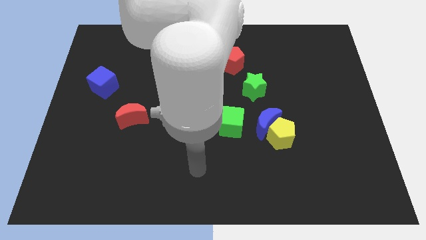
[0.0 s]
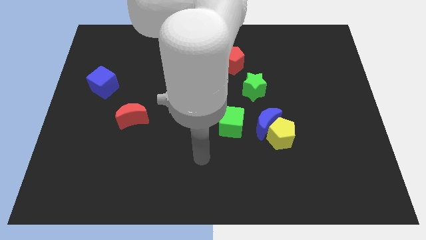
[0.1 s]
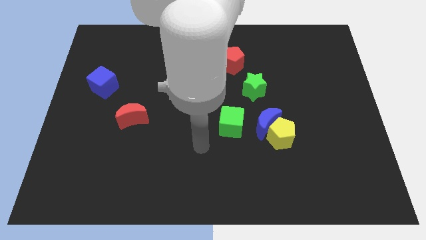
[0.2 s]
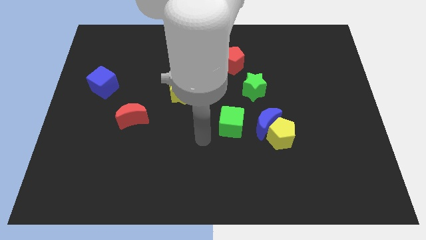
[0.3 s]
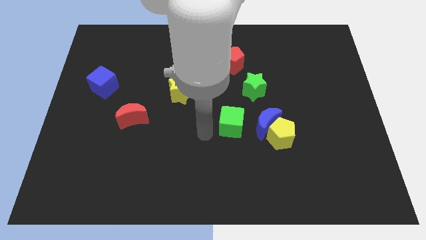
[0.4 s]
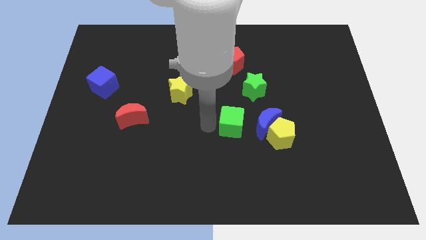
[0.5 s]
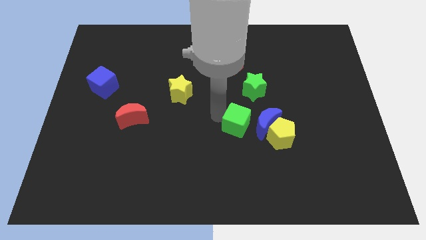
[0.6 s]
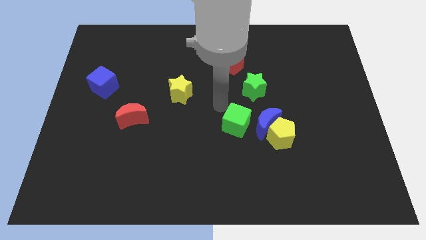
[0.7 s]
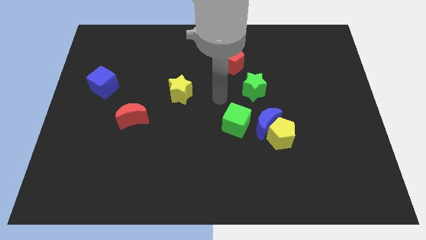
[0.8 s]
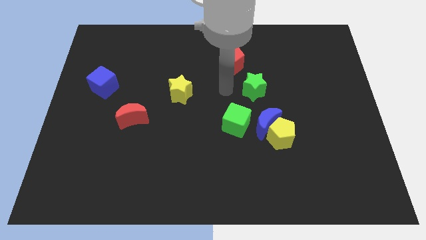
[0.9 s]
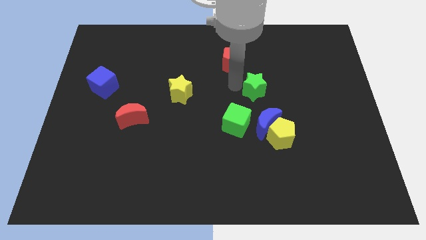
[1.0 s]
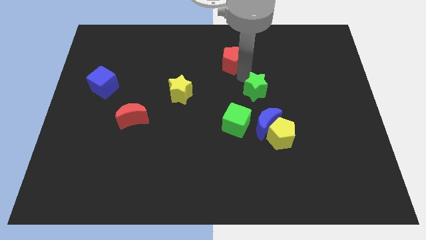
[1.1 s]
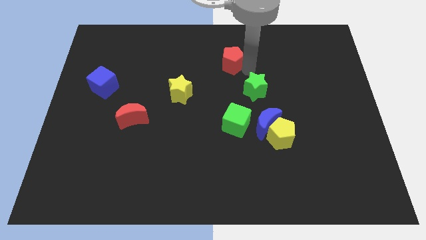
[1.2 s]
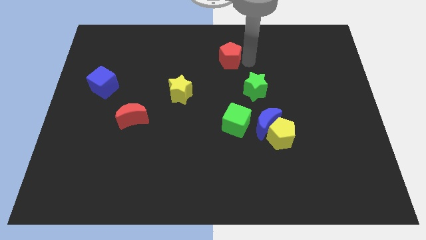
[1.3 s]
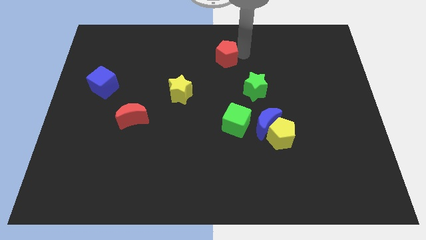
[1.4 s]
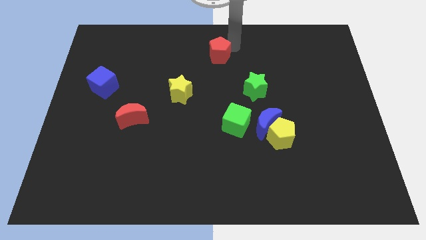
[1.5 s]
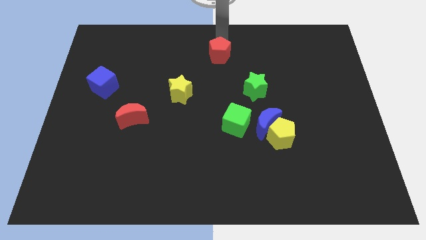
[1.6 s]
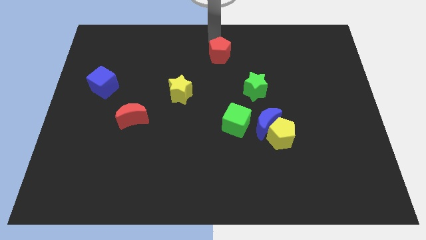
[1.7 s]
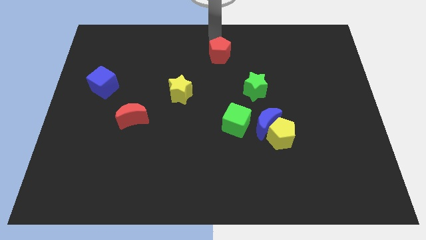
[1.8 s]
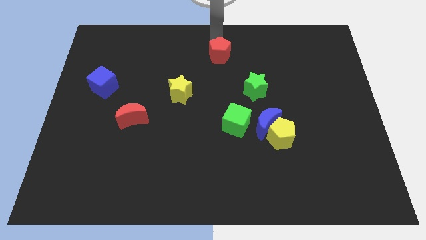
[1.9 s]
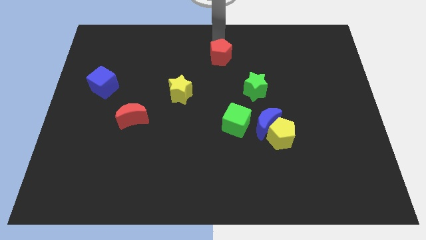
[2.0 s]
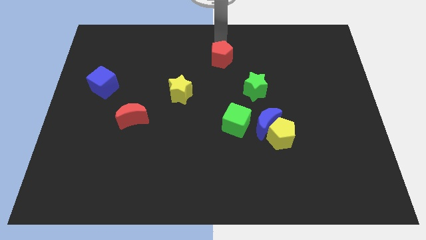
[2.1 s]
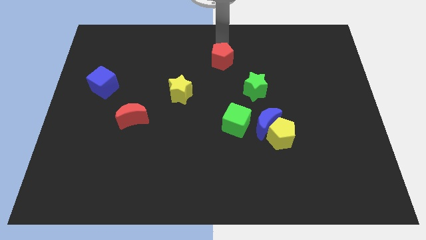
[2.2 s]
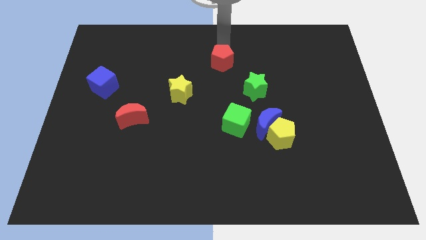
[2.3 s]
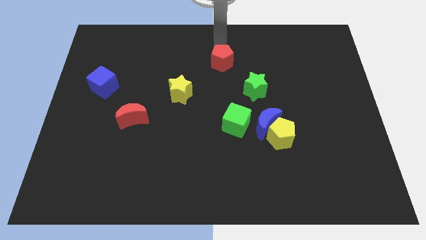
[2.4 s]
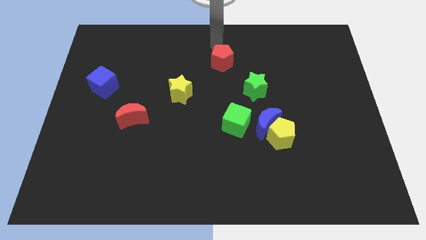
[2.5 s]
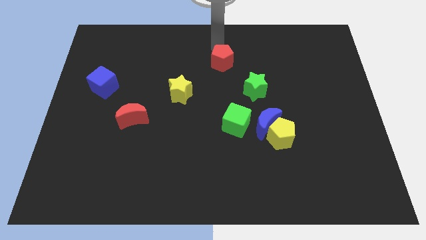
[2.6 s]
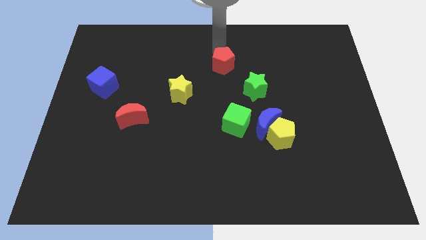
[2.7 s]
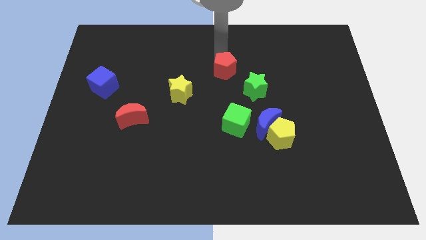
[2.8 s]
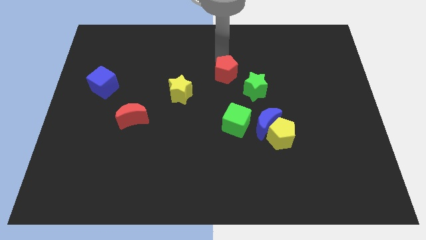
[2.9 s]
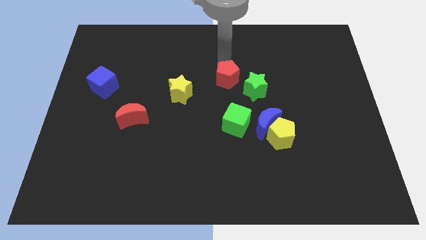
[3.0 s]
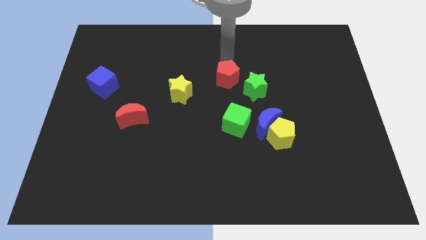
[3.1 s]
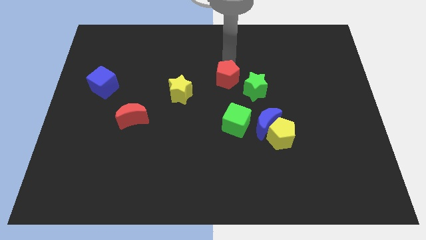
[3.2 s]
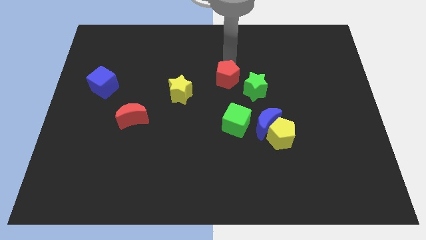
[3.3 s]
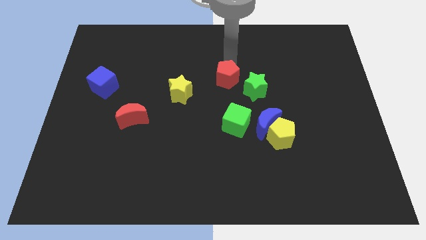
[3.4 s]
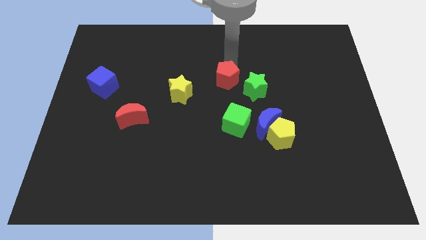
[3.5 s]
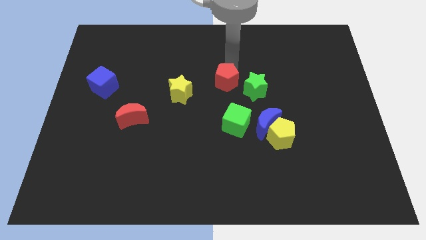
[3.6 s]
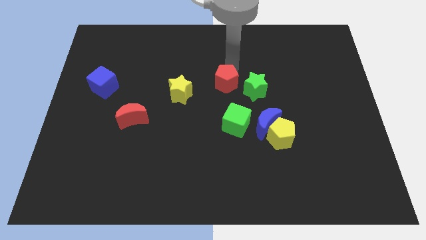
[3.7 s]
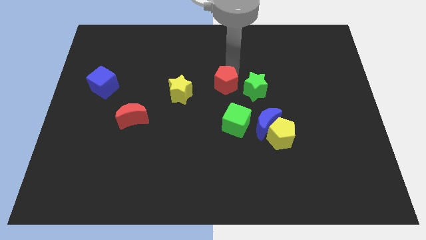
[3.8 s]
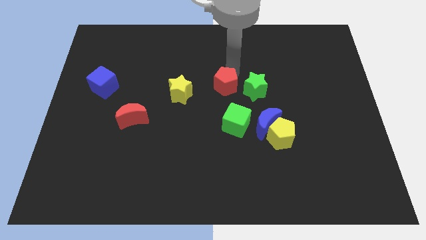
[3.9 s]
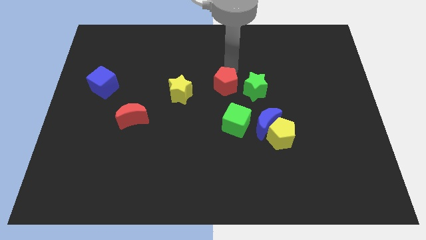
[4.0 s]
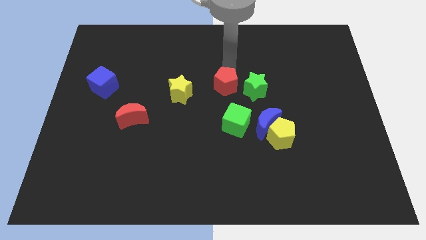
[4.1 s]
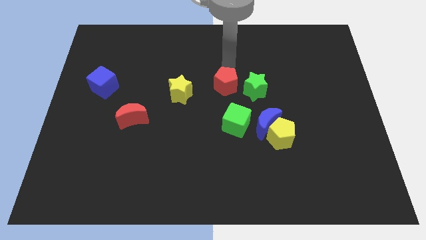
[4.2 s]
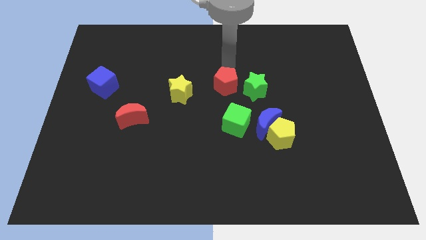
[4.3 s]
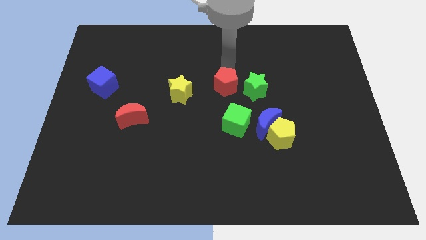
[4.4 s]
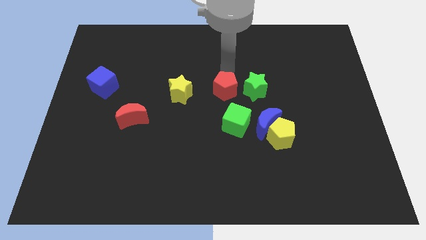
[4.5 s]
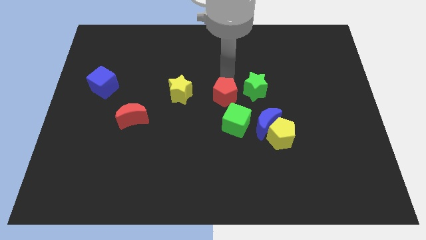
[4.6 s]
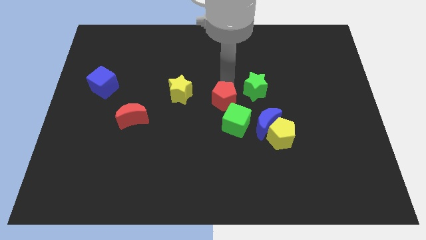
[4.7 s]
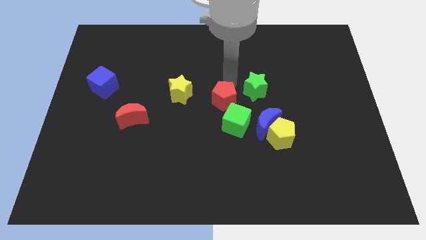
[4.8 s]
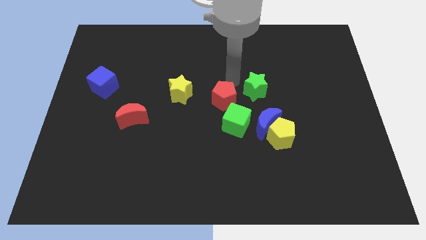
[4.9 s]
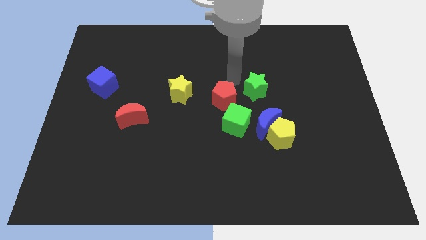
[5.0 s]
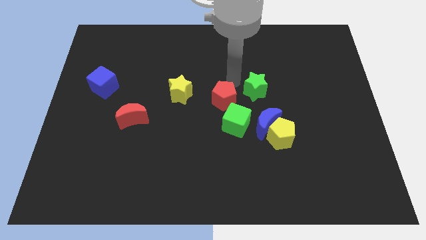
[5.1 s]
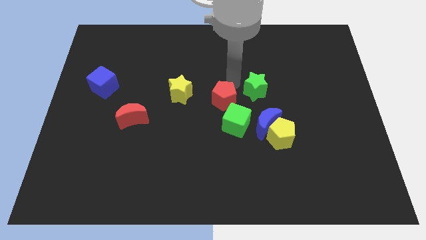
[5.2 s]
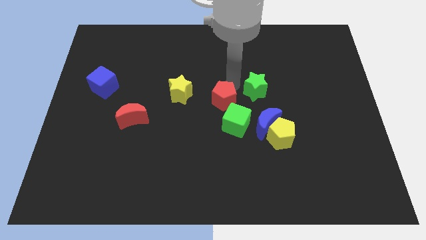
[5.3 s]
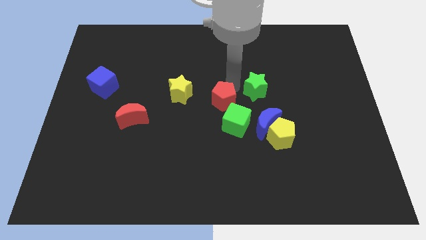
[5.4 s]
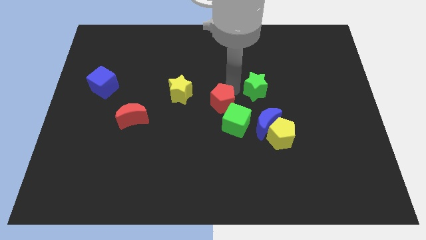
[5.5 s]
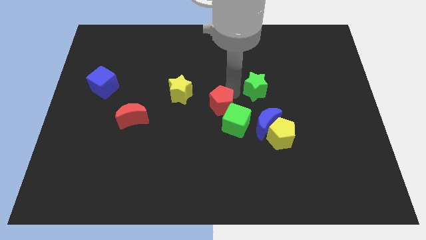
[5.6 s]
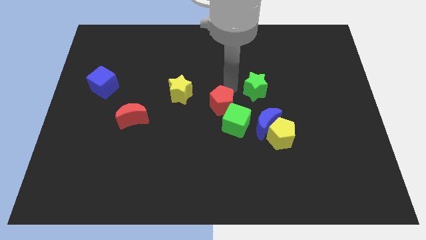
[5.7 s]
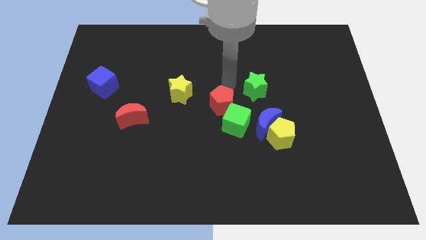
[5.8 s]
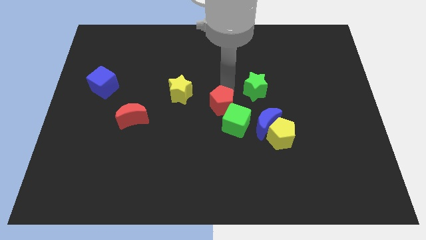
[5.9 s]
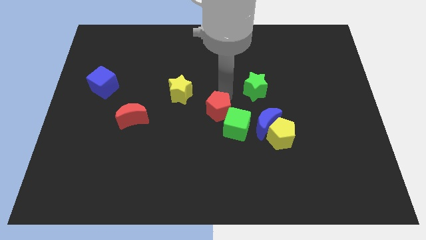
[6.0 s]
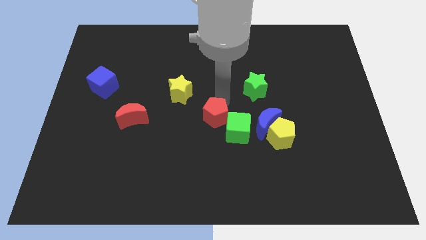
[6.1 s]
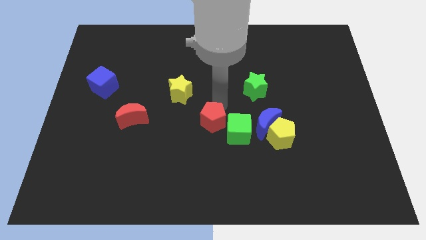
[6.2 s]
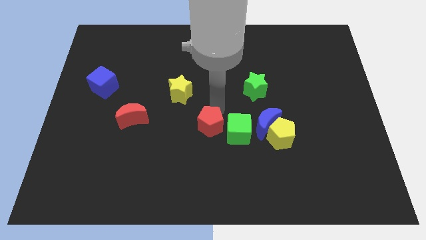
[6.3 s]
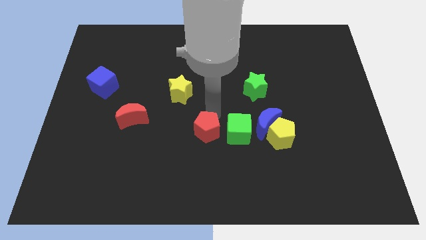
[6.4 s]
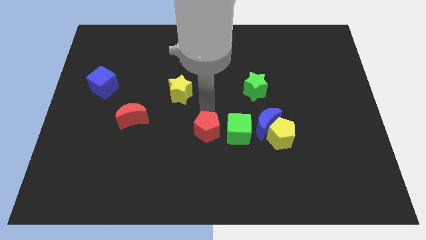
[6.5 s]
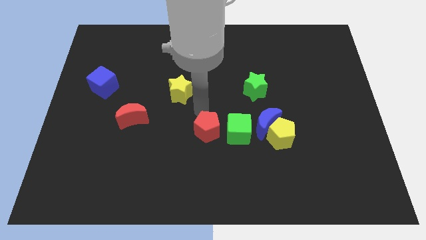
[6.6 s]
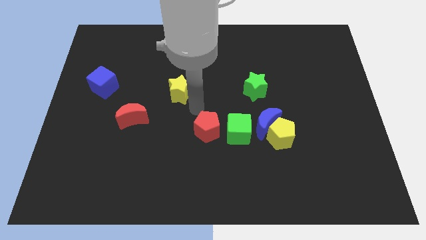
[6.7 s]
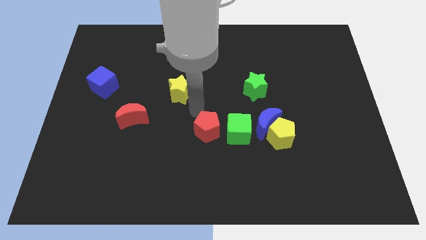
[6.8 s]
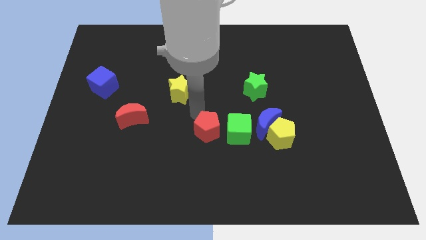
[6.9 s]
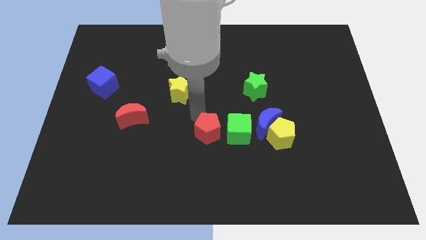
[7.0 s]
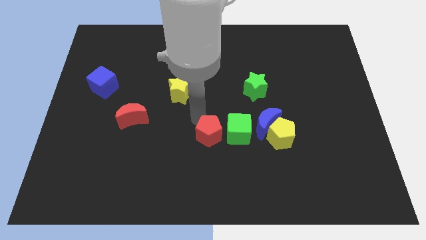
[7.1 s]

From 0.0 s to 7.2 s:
slide the red pentagon downwards

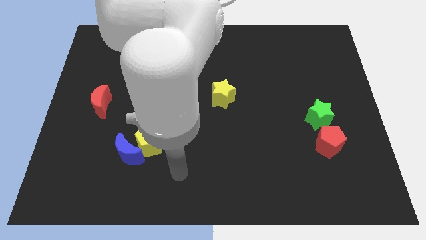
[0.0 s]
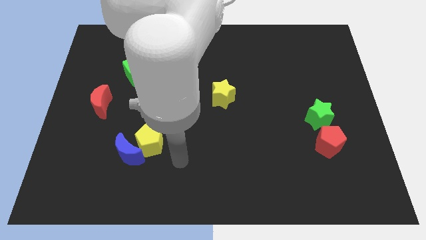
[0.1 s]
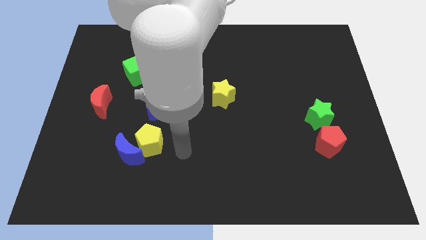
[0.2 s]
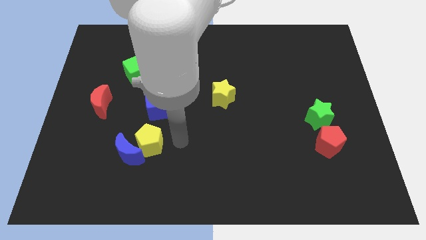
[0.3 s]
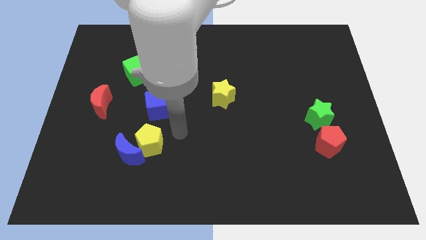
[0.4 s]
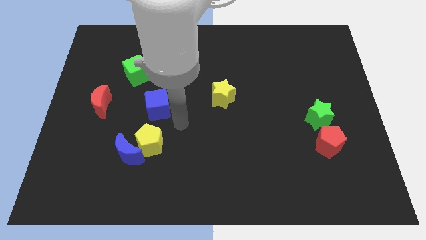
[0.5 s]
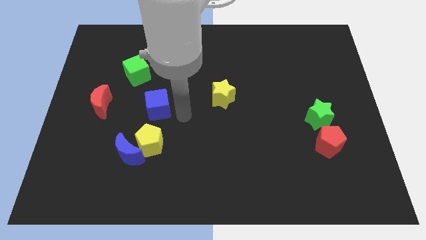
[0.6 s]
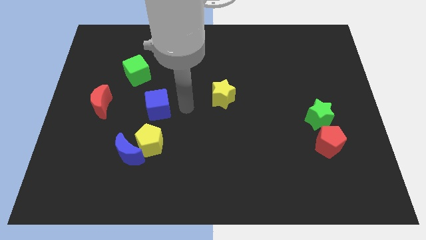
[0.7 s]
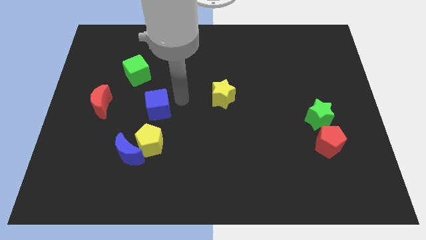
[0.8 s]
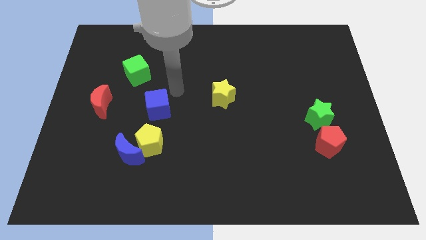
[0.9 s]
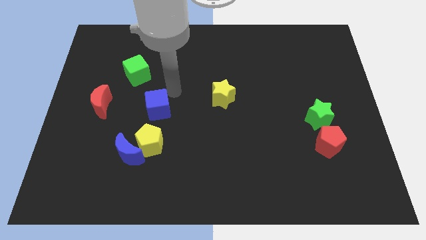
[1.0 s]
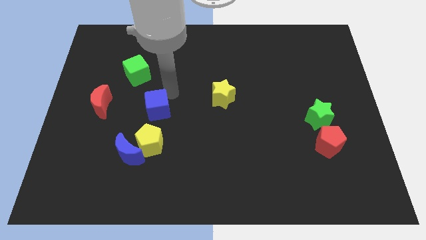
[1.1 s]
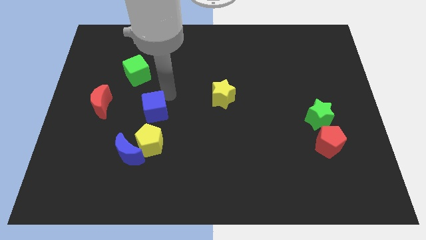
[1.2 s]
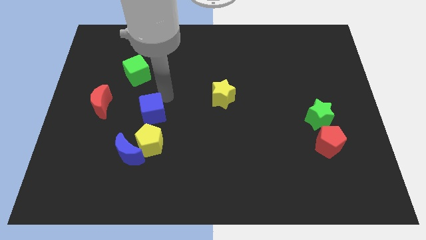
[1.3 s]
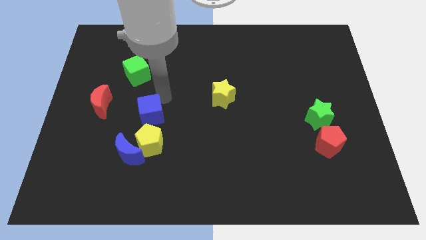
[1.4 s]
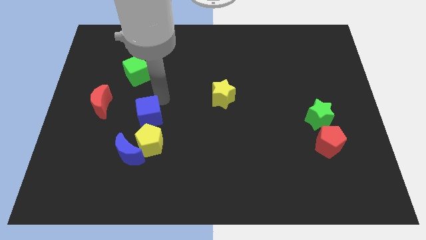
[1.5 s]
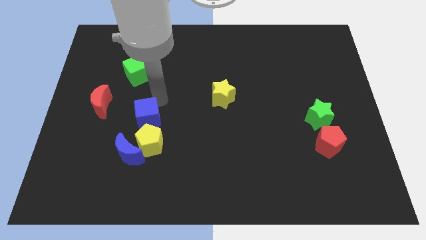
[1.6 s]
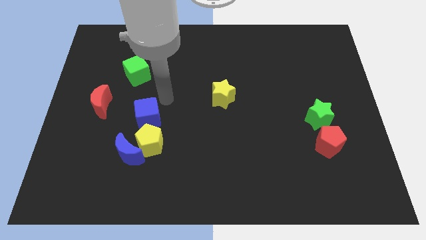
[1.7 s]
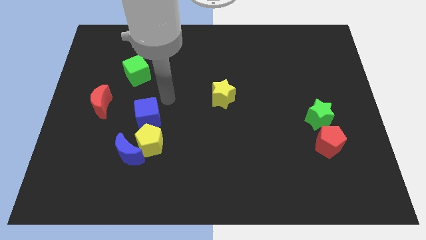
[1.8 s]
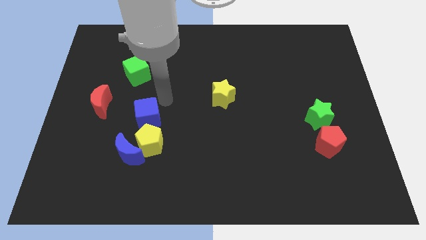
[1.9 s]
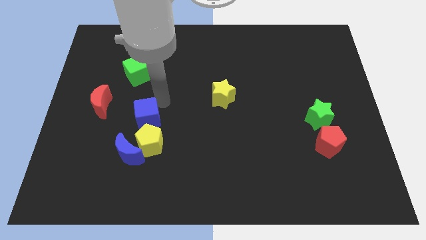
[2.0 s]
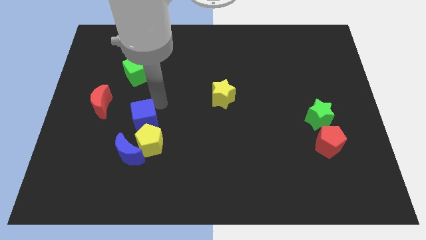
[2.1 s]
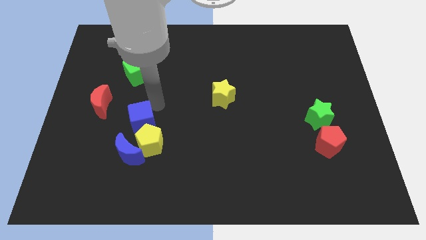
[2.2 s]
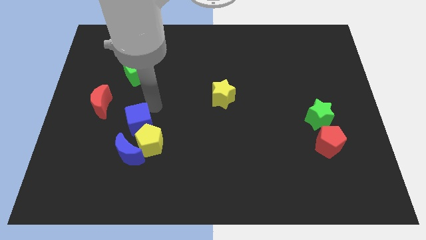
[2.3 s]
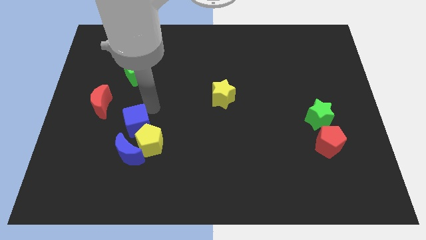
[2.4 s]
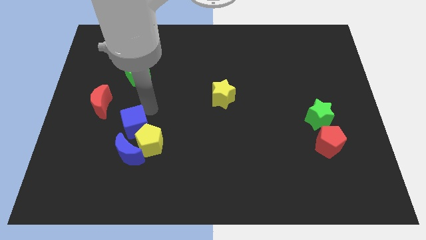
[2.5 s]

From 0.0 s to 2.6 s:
slightly slide the blue cube diagonally down and to the left
